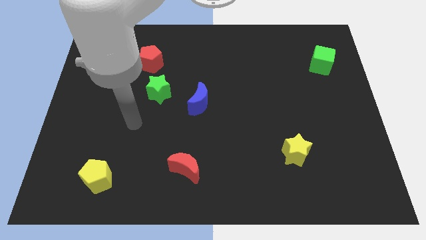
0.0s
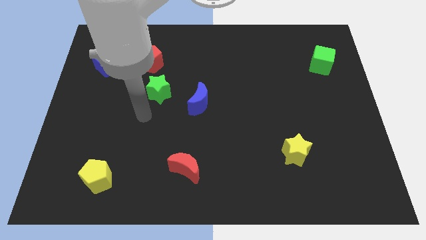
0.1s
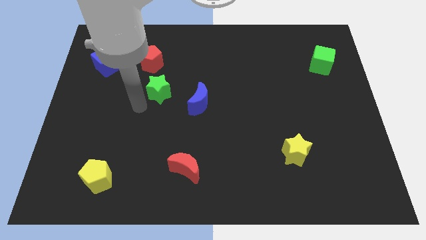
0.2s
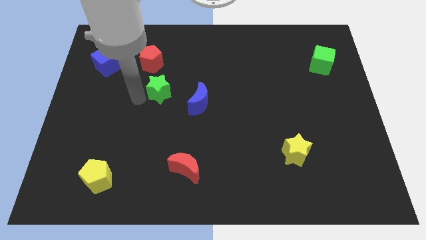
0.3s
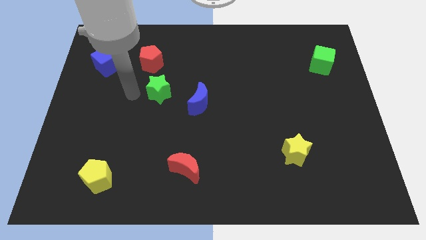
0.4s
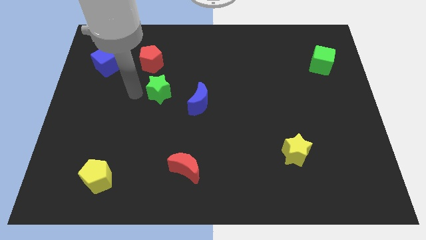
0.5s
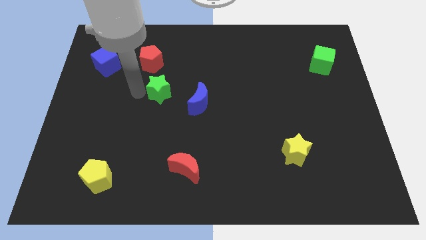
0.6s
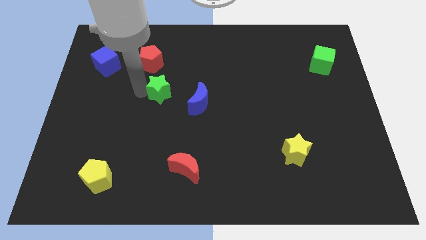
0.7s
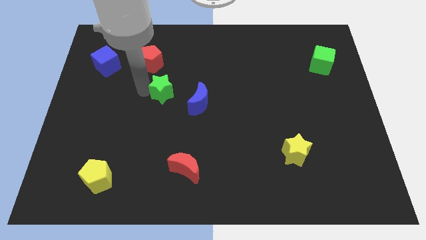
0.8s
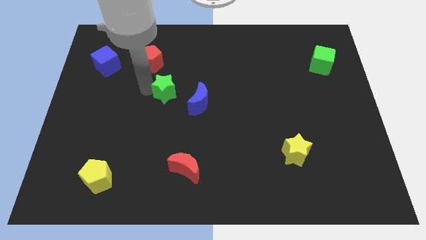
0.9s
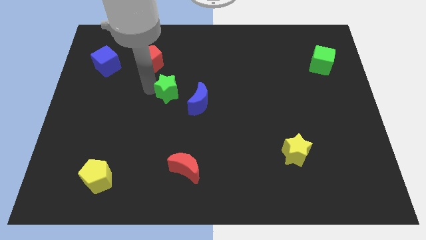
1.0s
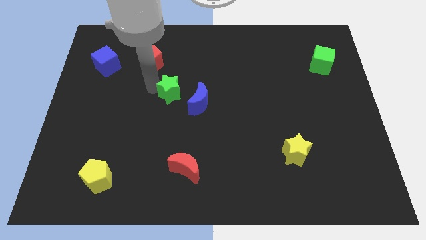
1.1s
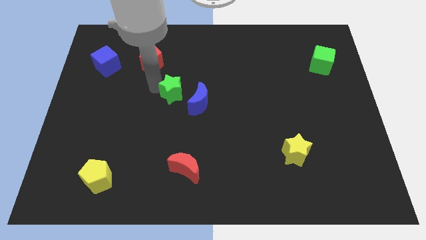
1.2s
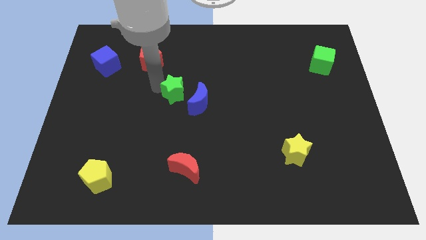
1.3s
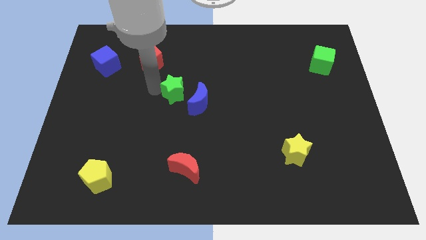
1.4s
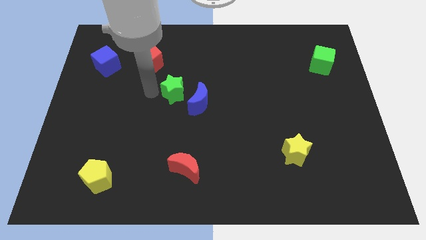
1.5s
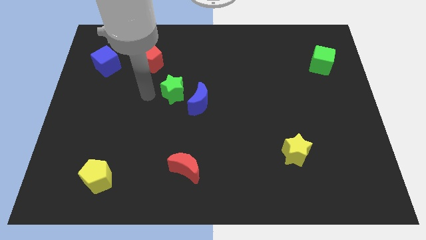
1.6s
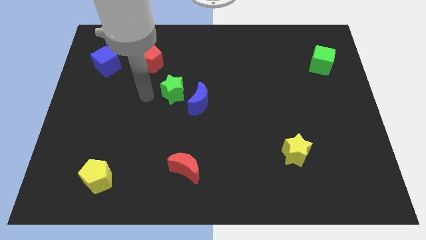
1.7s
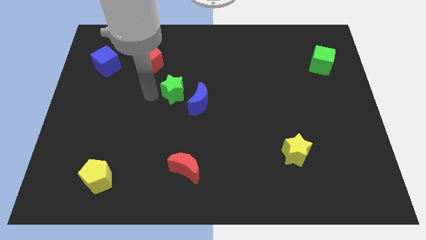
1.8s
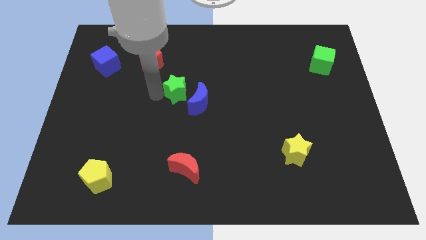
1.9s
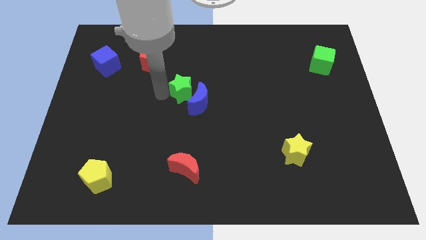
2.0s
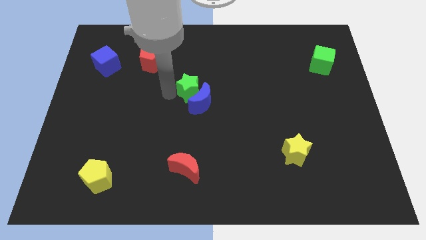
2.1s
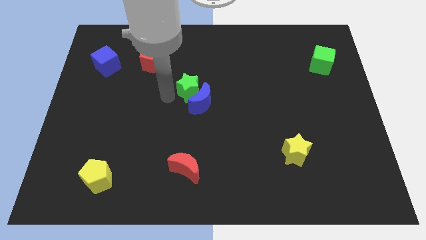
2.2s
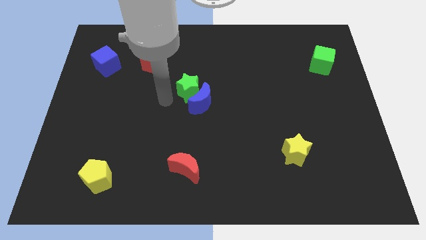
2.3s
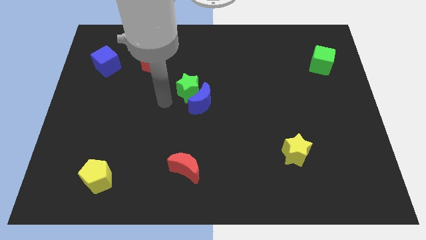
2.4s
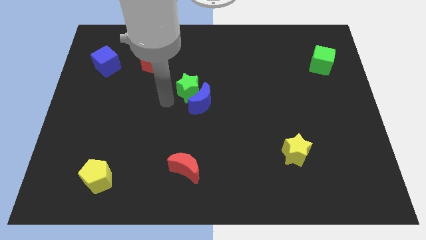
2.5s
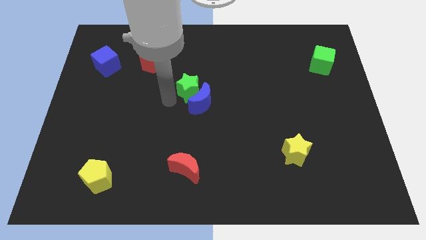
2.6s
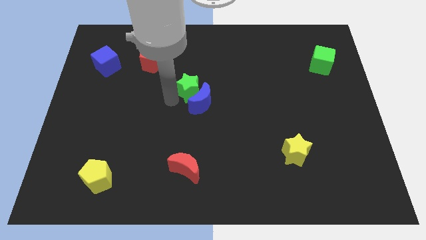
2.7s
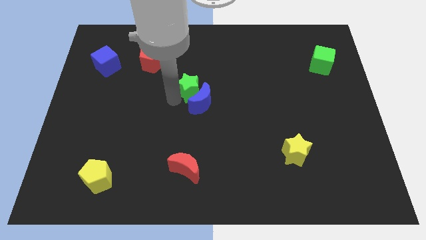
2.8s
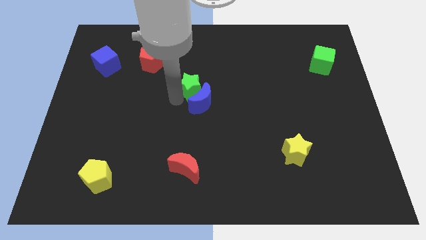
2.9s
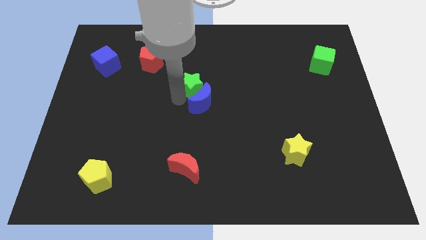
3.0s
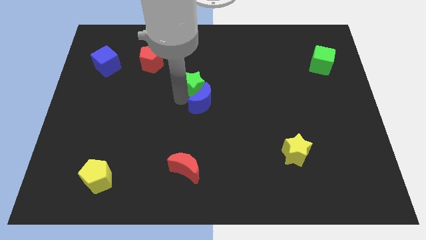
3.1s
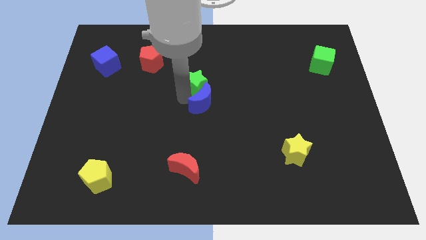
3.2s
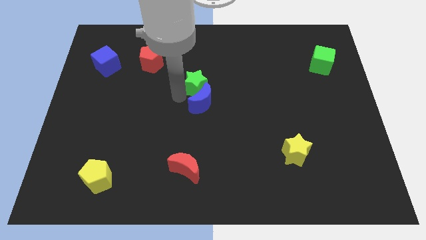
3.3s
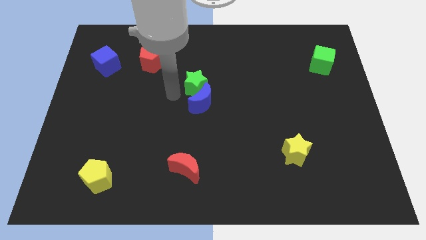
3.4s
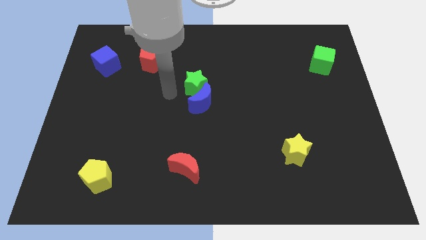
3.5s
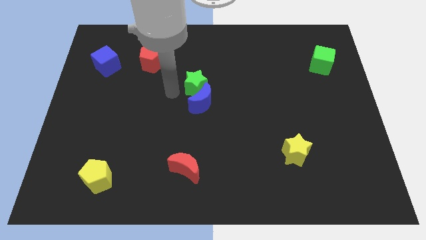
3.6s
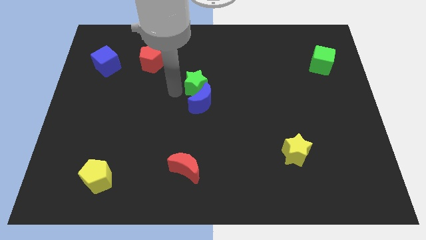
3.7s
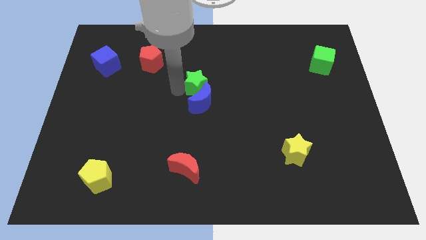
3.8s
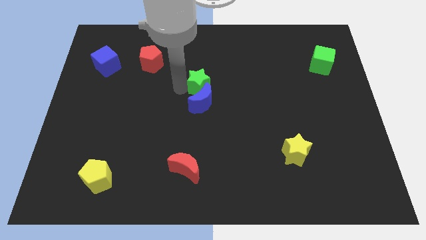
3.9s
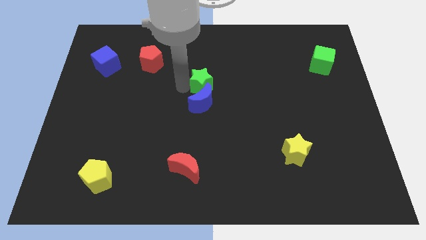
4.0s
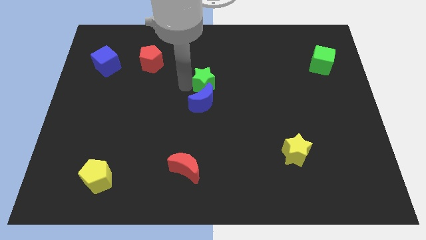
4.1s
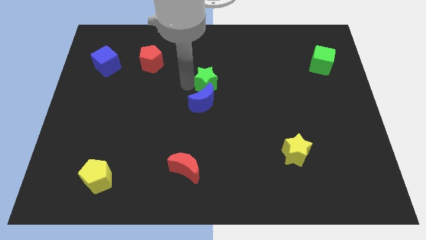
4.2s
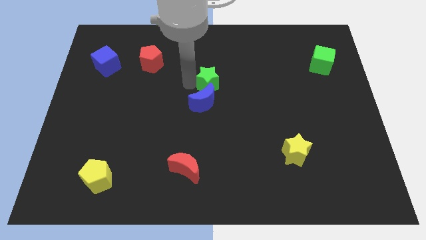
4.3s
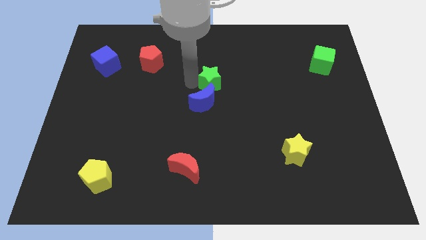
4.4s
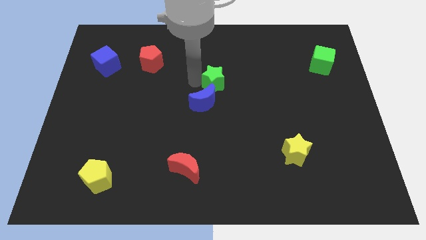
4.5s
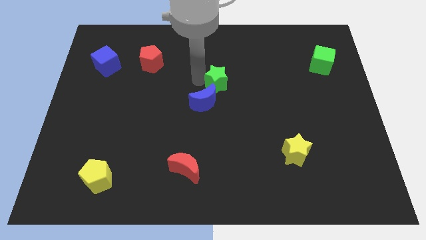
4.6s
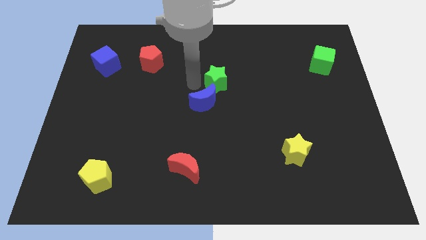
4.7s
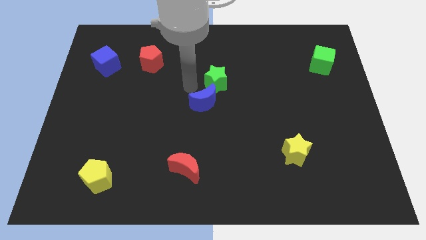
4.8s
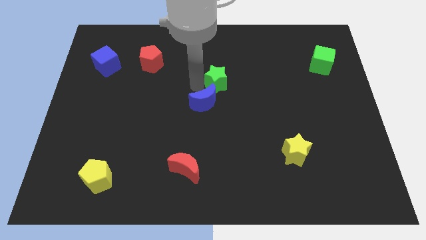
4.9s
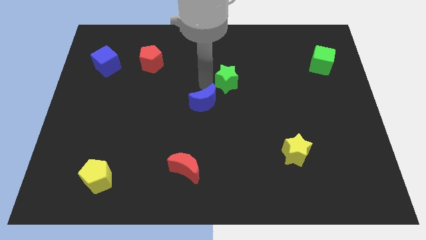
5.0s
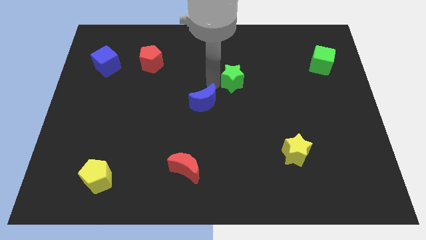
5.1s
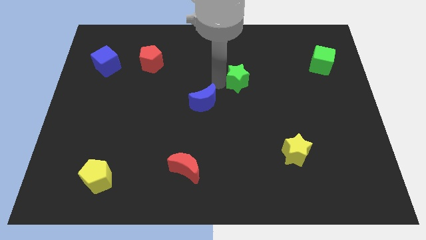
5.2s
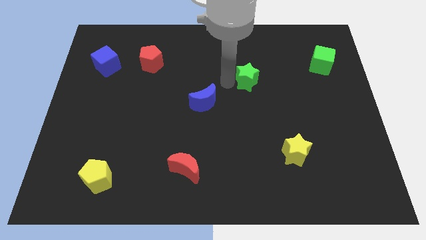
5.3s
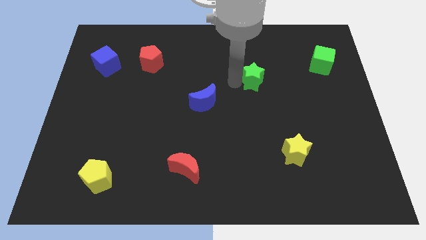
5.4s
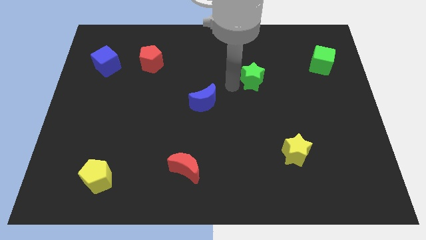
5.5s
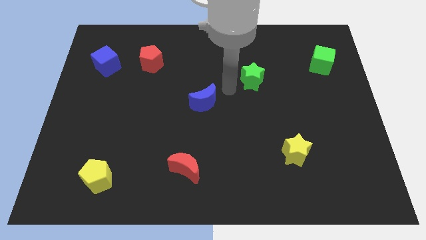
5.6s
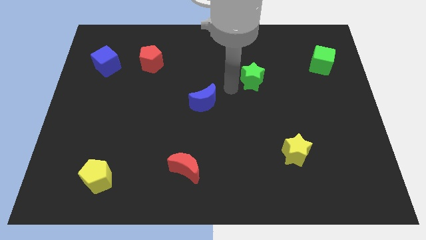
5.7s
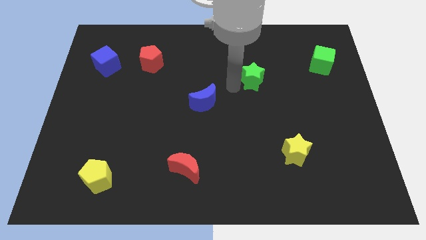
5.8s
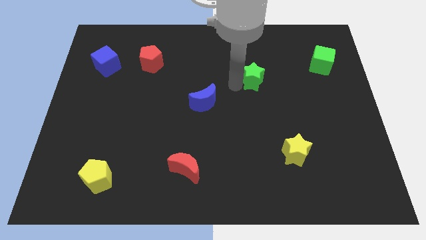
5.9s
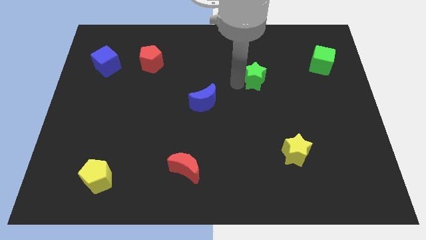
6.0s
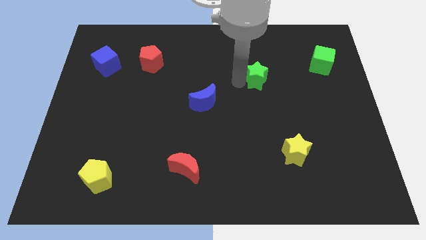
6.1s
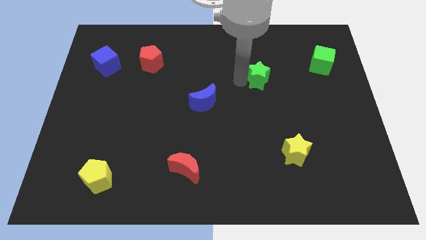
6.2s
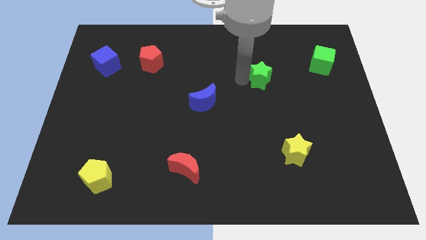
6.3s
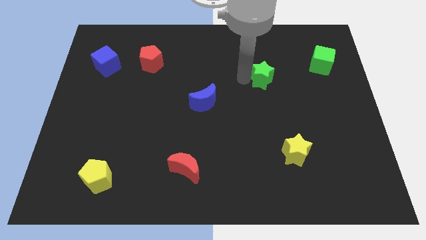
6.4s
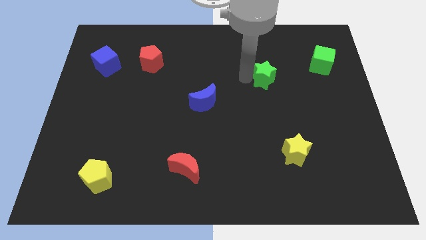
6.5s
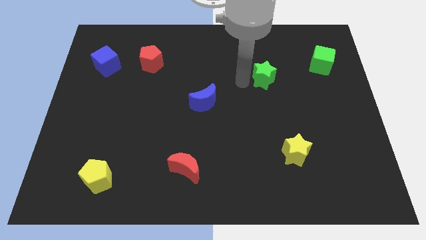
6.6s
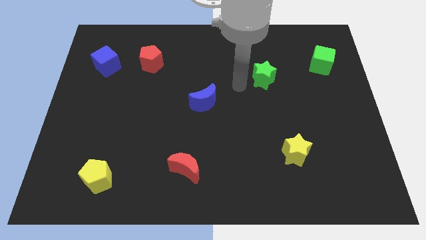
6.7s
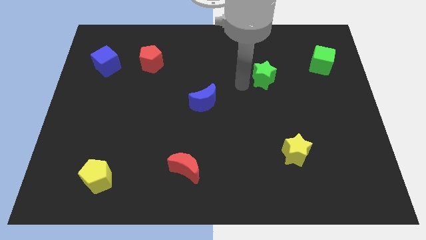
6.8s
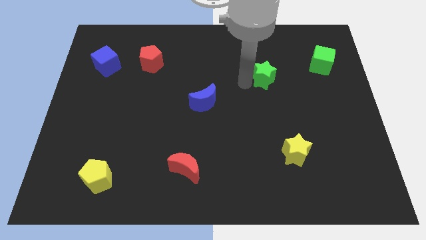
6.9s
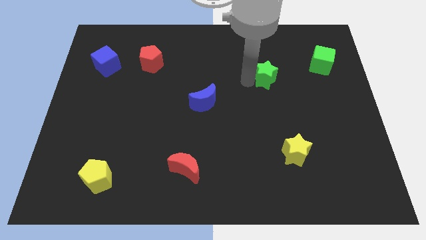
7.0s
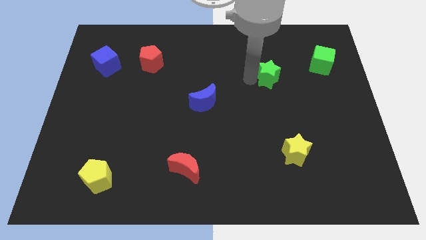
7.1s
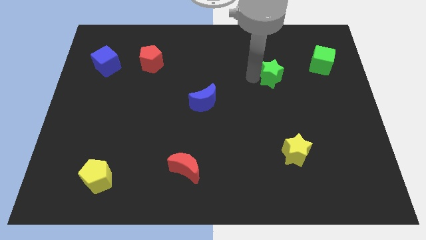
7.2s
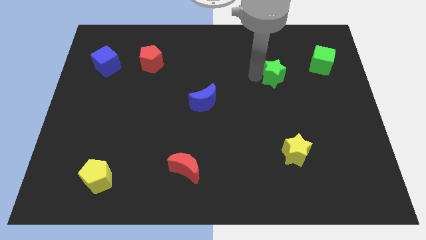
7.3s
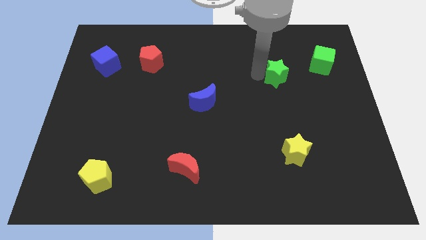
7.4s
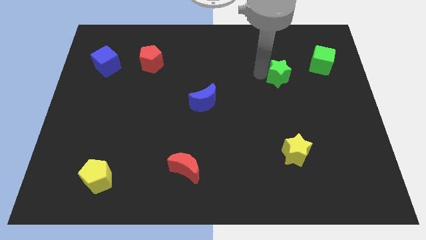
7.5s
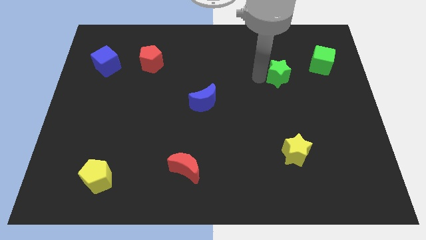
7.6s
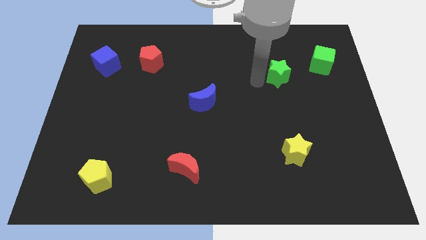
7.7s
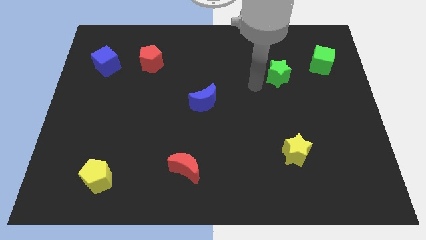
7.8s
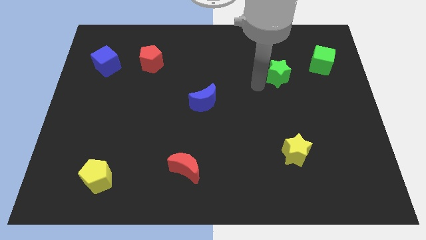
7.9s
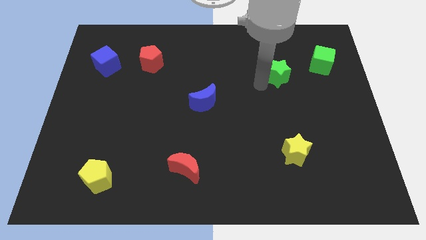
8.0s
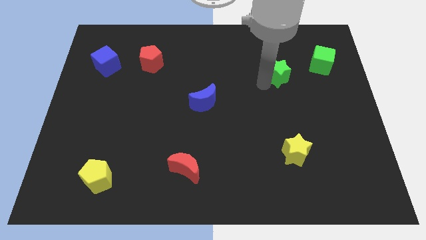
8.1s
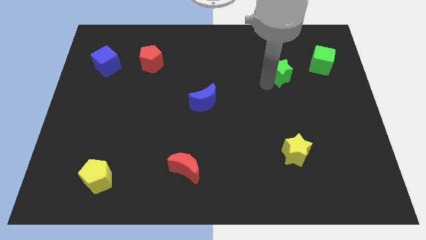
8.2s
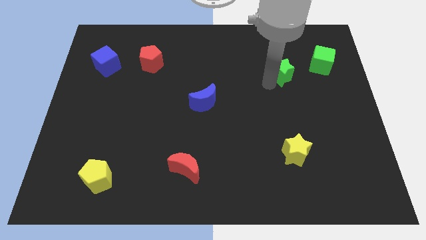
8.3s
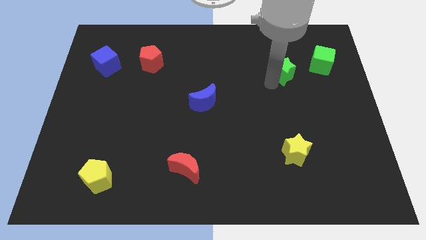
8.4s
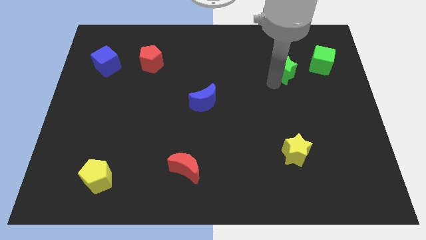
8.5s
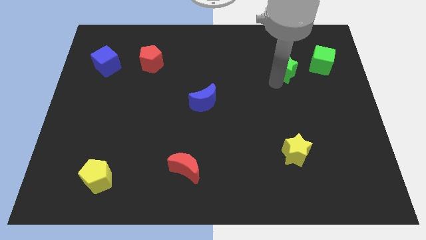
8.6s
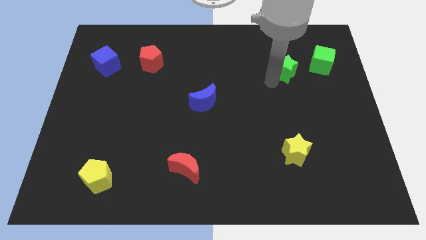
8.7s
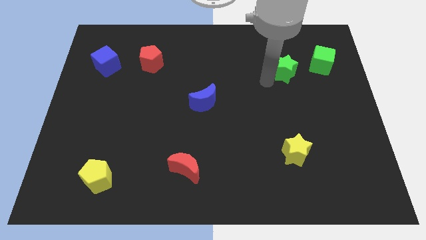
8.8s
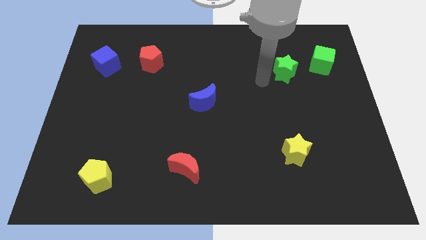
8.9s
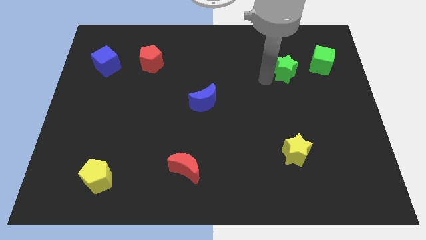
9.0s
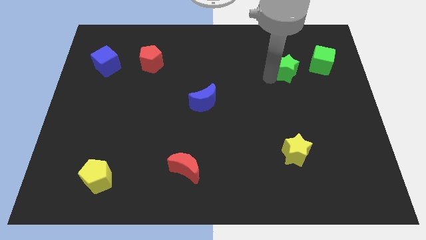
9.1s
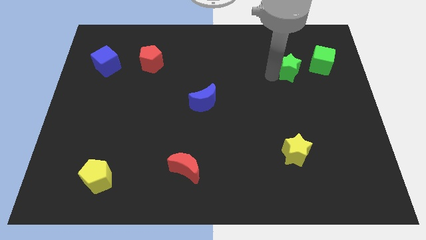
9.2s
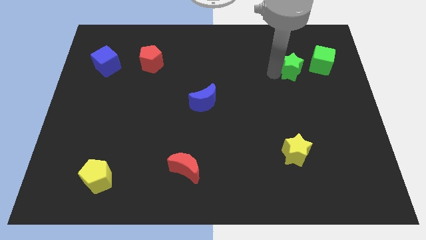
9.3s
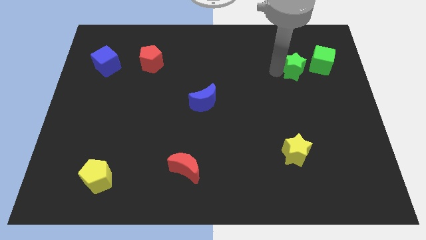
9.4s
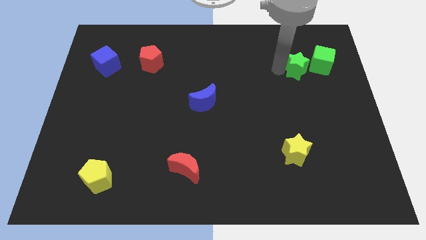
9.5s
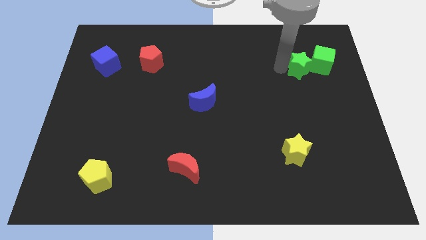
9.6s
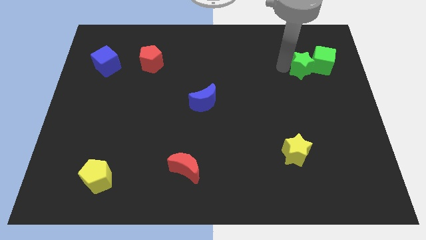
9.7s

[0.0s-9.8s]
push the green star next to the green cube
